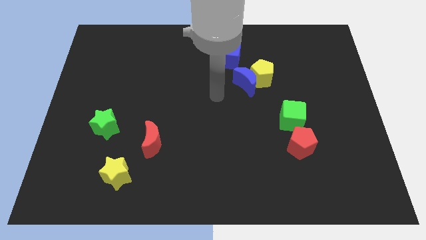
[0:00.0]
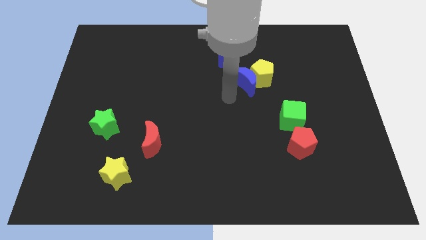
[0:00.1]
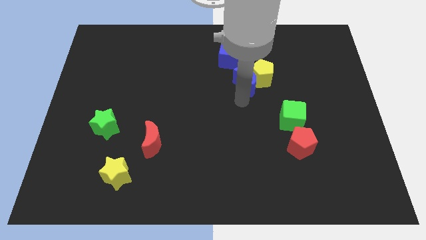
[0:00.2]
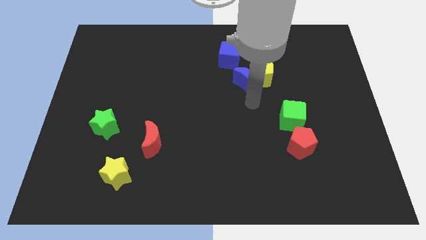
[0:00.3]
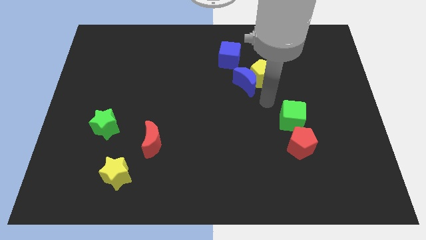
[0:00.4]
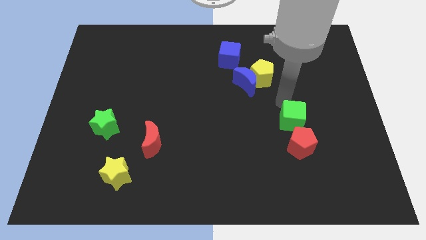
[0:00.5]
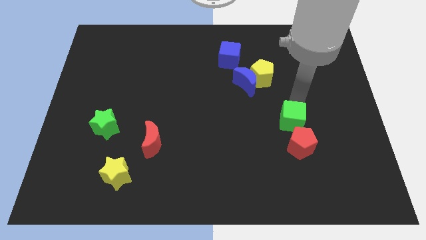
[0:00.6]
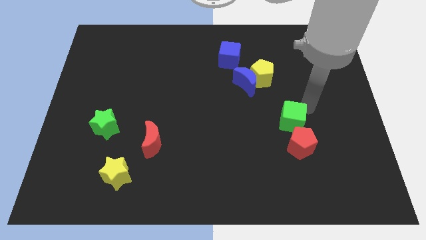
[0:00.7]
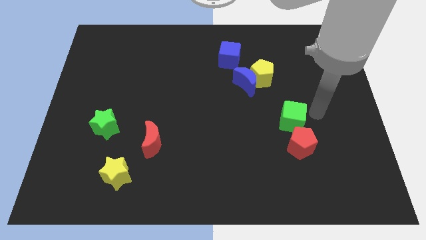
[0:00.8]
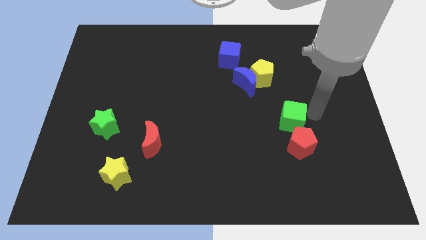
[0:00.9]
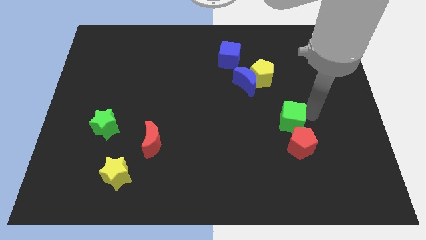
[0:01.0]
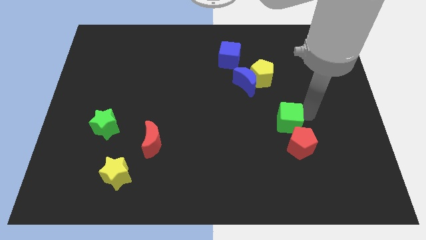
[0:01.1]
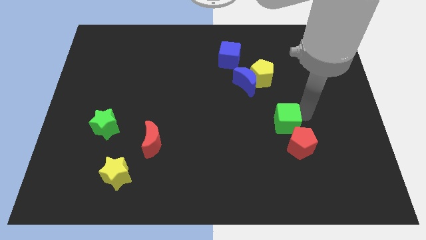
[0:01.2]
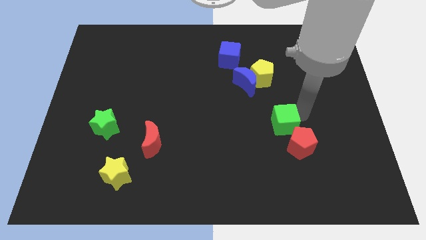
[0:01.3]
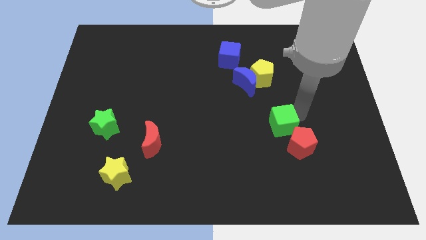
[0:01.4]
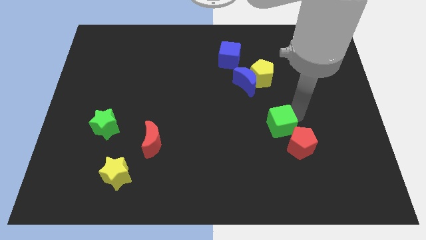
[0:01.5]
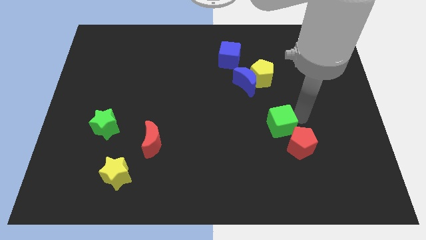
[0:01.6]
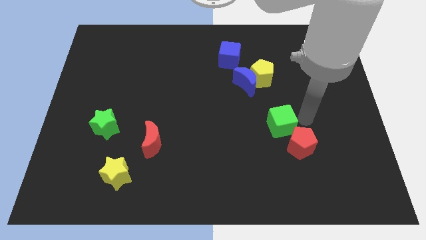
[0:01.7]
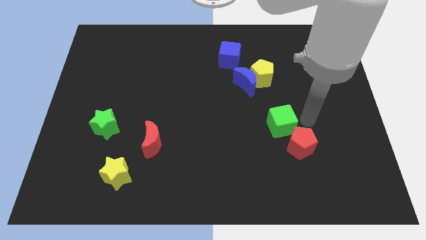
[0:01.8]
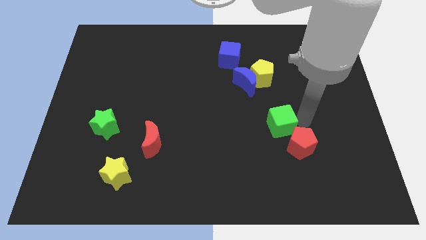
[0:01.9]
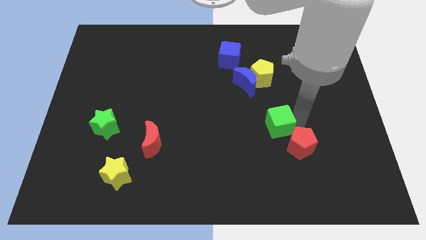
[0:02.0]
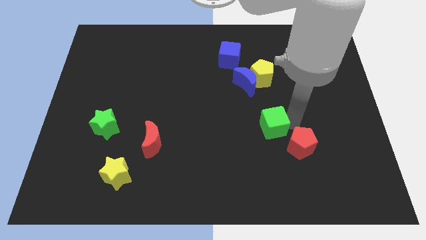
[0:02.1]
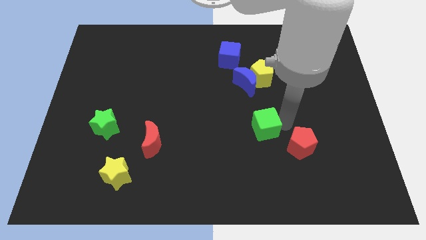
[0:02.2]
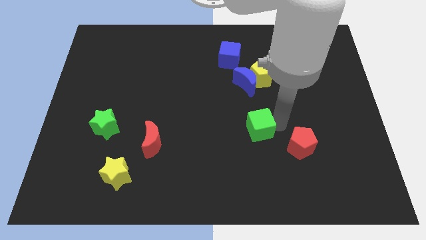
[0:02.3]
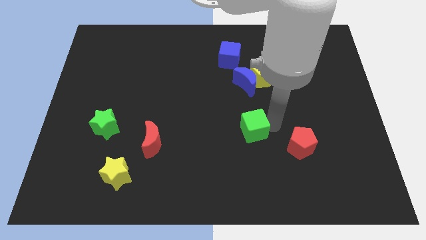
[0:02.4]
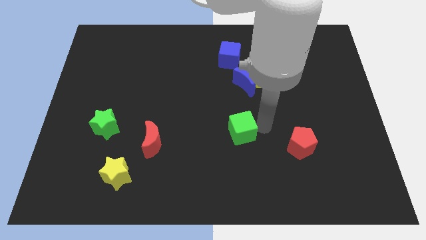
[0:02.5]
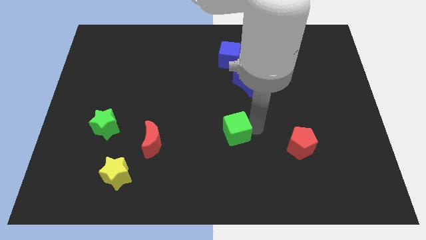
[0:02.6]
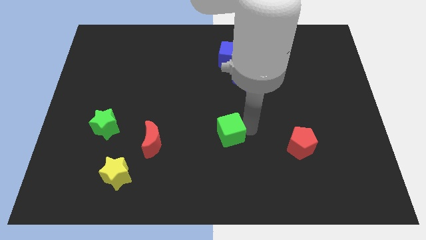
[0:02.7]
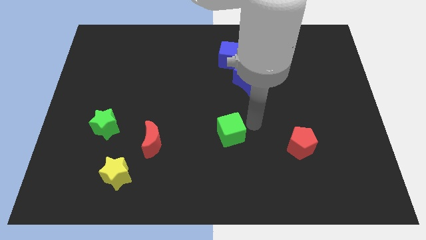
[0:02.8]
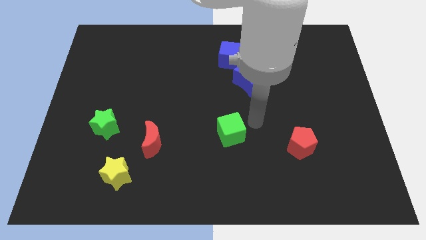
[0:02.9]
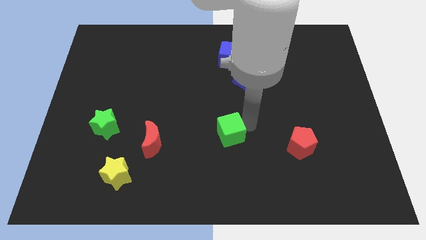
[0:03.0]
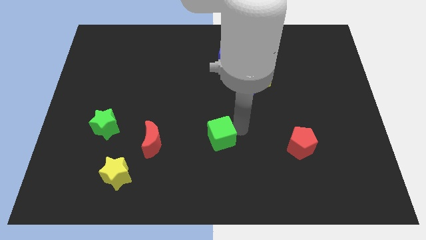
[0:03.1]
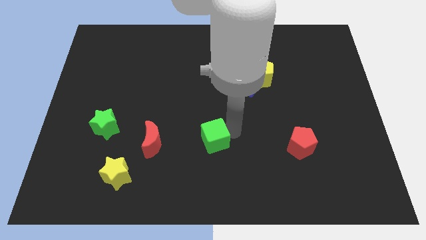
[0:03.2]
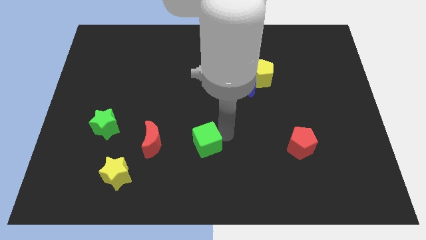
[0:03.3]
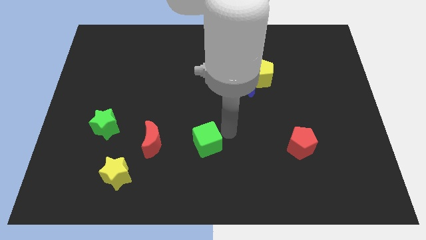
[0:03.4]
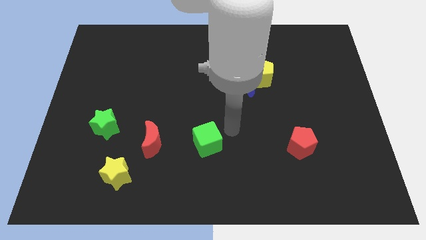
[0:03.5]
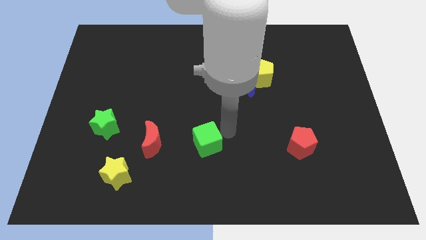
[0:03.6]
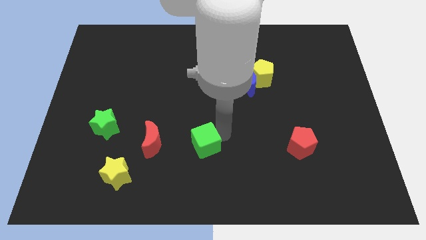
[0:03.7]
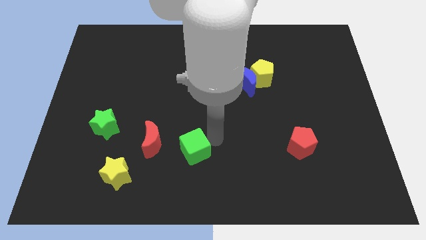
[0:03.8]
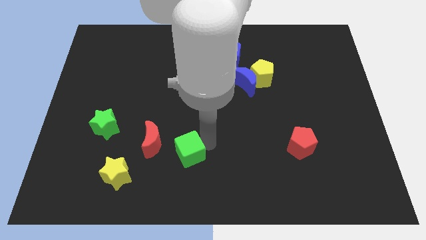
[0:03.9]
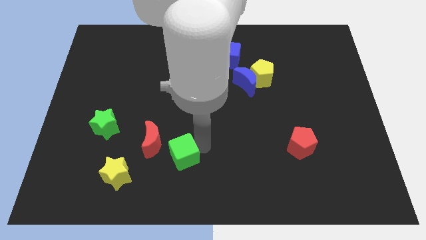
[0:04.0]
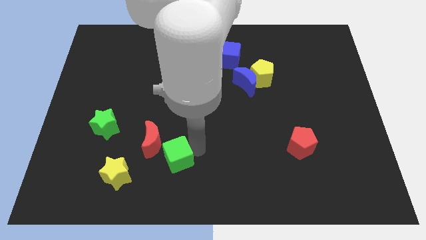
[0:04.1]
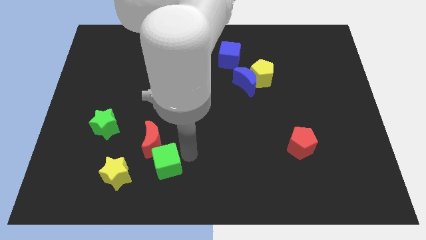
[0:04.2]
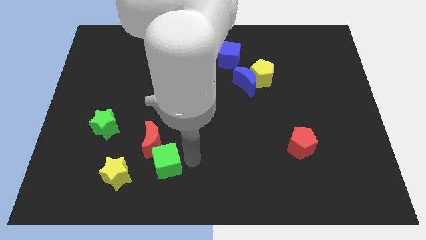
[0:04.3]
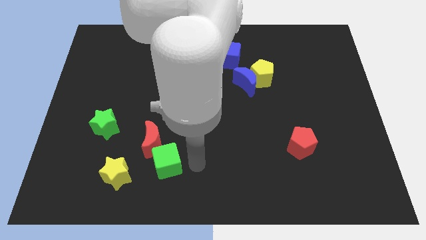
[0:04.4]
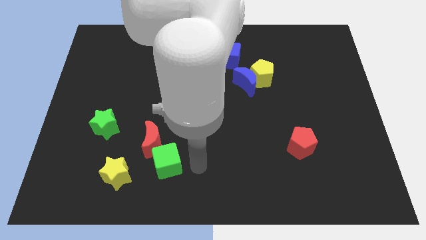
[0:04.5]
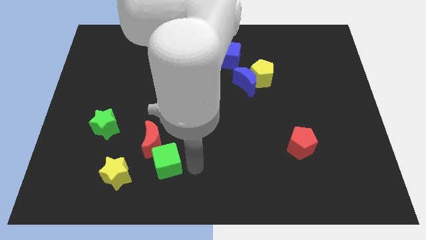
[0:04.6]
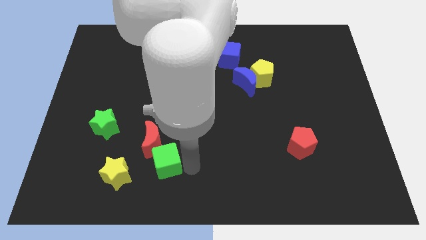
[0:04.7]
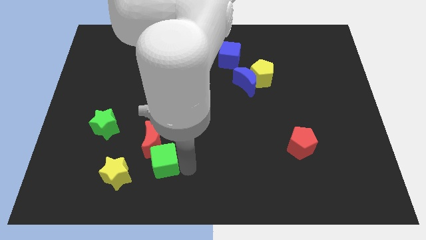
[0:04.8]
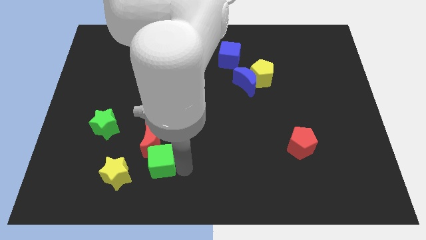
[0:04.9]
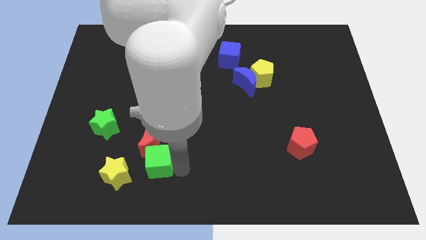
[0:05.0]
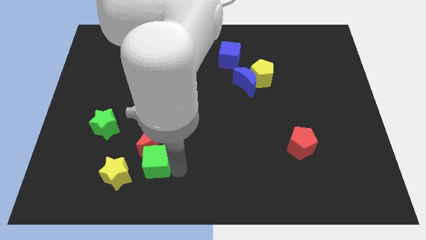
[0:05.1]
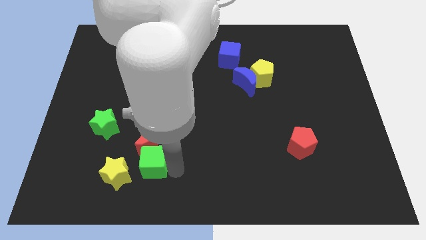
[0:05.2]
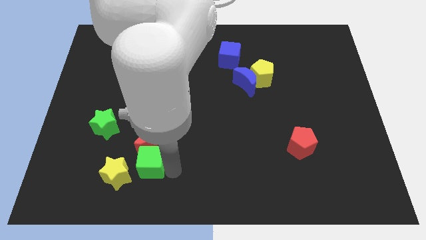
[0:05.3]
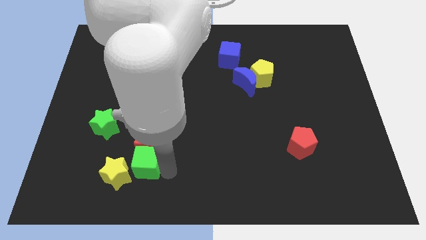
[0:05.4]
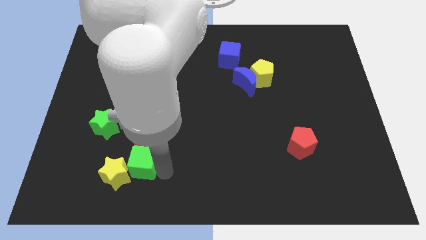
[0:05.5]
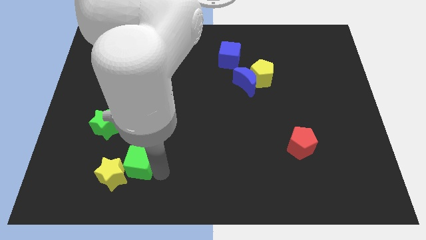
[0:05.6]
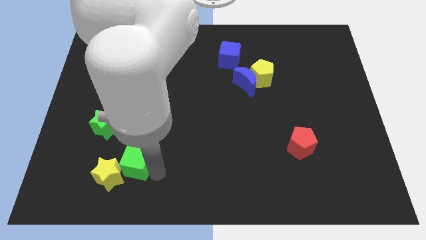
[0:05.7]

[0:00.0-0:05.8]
push the green cube to the bottom right side of the green star

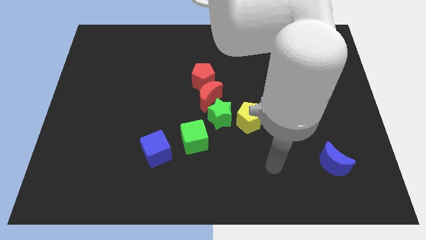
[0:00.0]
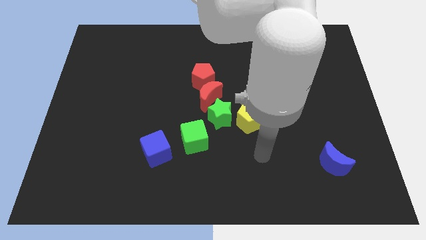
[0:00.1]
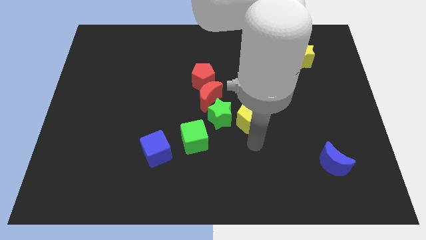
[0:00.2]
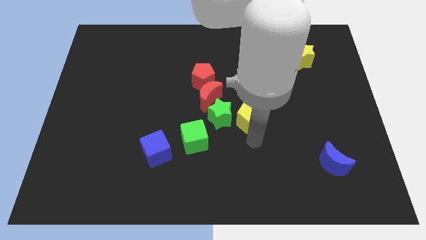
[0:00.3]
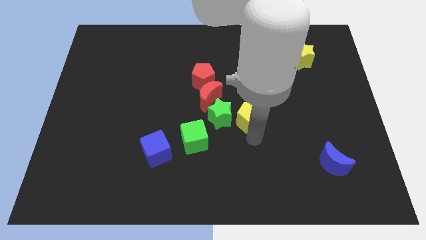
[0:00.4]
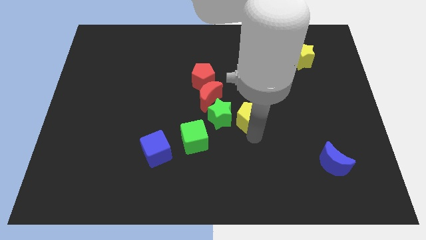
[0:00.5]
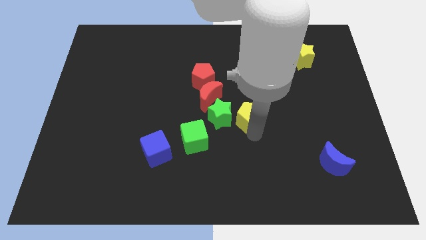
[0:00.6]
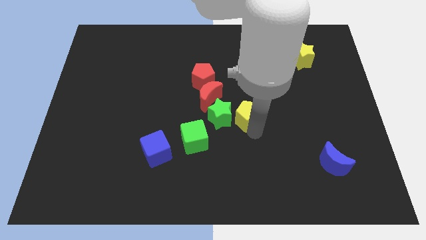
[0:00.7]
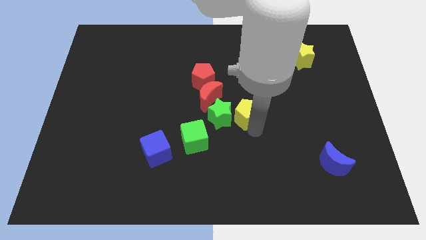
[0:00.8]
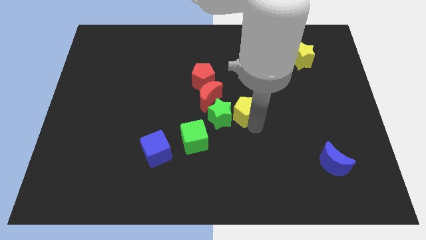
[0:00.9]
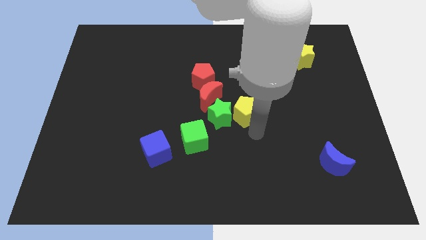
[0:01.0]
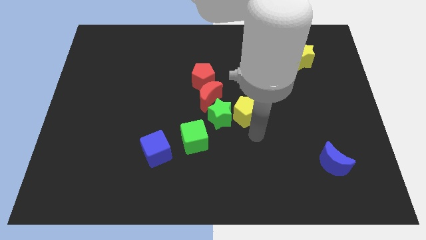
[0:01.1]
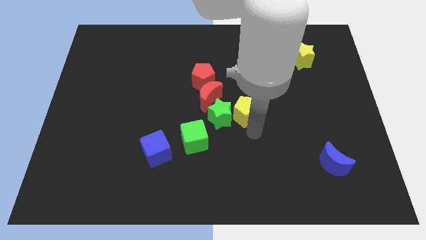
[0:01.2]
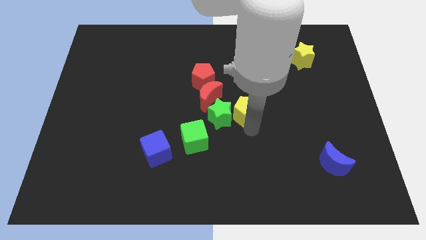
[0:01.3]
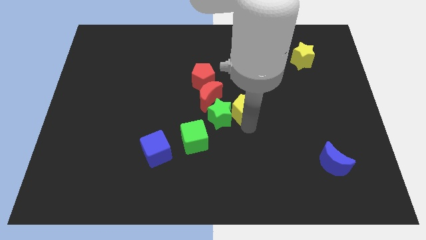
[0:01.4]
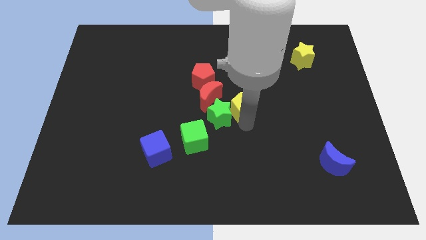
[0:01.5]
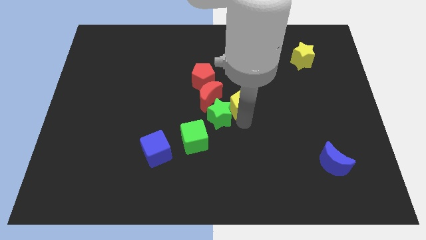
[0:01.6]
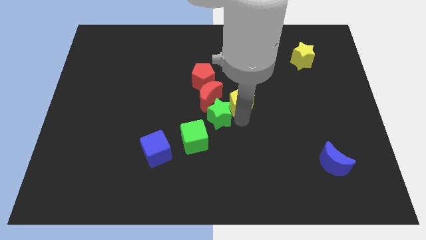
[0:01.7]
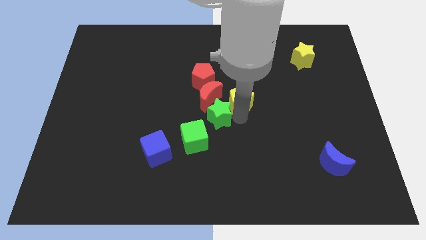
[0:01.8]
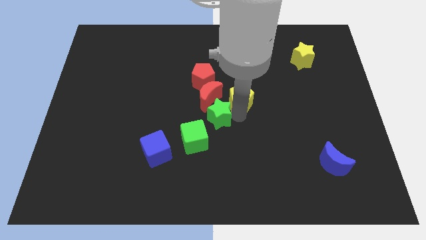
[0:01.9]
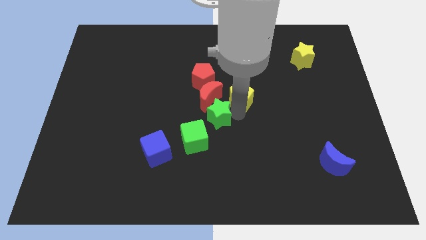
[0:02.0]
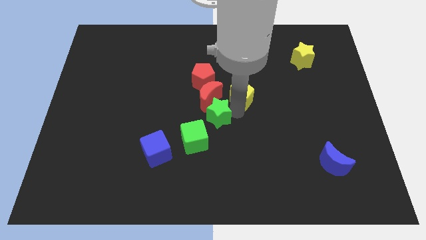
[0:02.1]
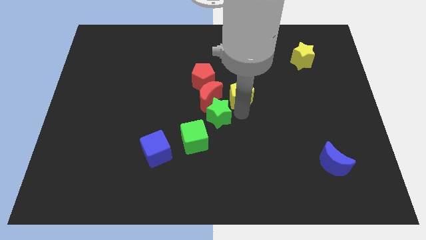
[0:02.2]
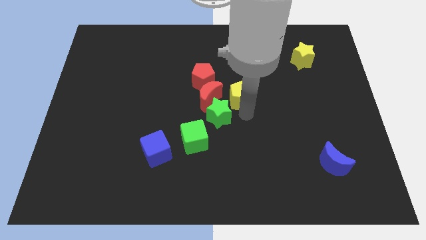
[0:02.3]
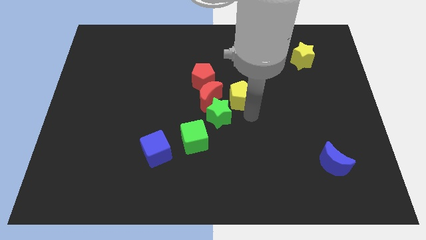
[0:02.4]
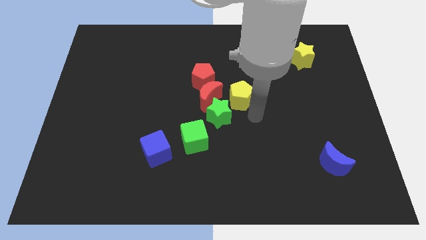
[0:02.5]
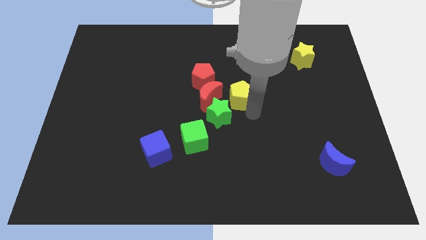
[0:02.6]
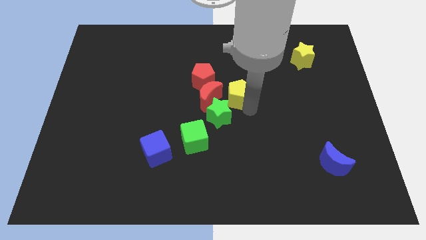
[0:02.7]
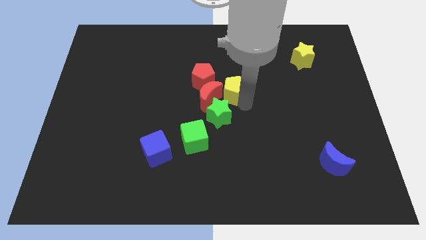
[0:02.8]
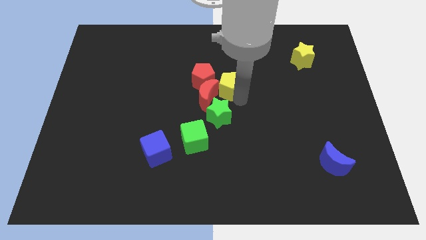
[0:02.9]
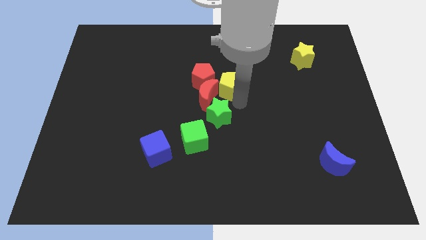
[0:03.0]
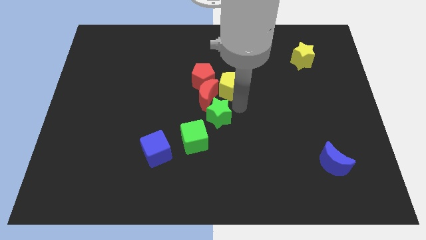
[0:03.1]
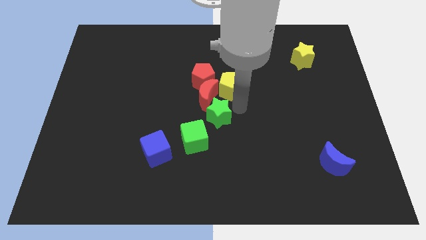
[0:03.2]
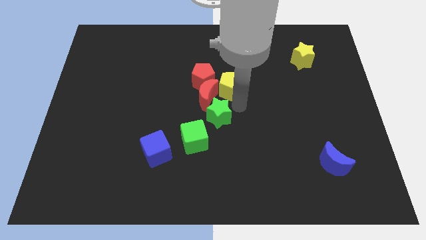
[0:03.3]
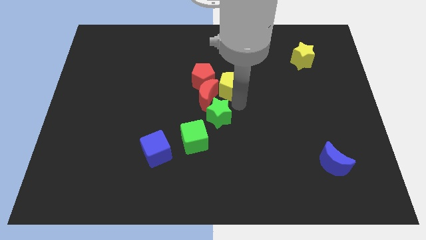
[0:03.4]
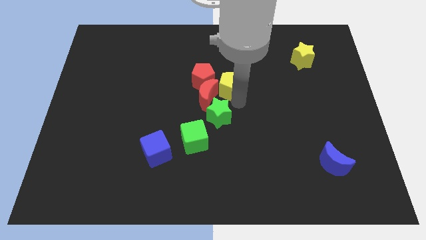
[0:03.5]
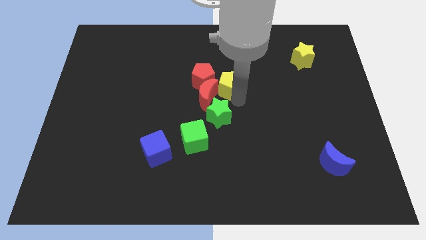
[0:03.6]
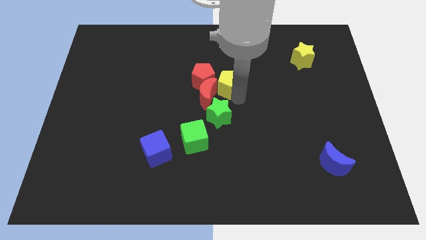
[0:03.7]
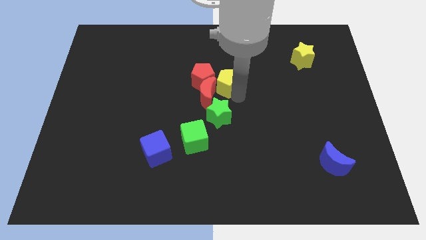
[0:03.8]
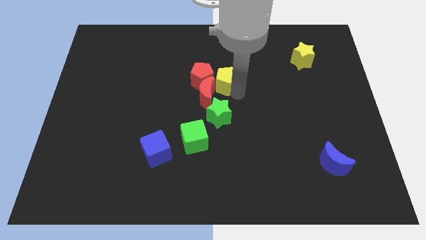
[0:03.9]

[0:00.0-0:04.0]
move the yellow pentagon above the red moon
